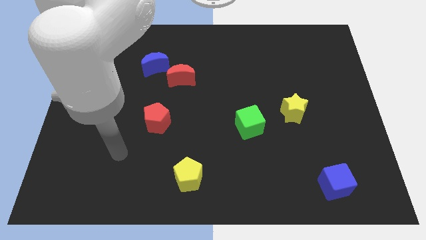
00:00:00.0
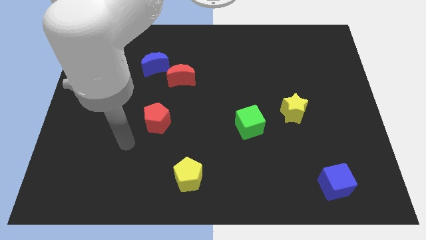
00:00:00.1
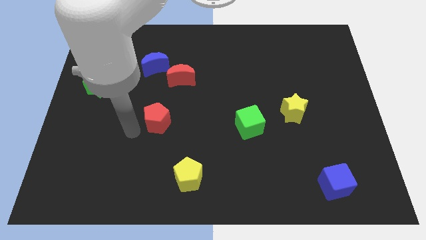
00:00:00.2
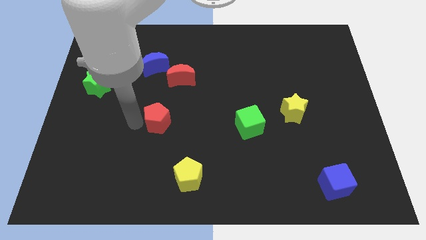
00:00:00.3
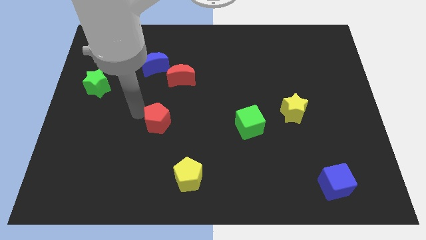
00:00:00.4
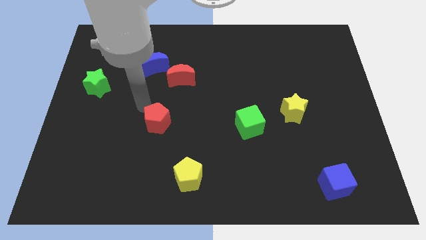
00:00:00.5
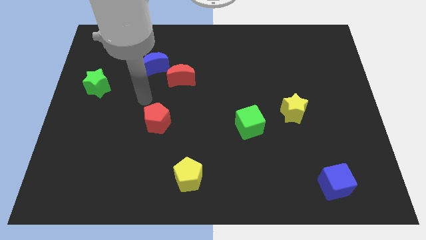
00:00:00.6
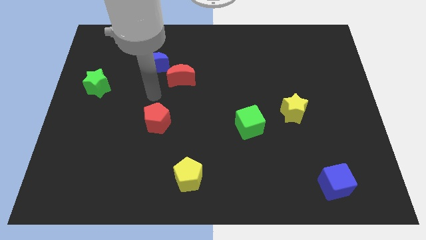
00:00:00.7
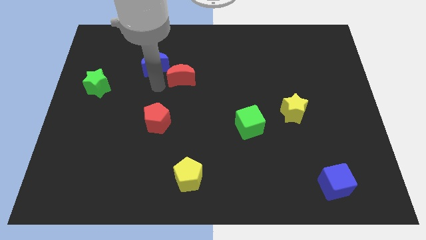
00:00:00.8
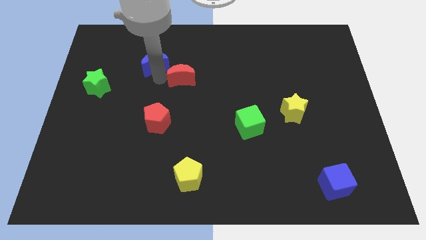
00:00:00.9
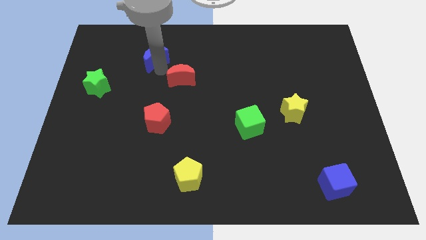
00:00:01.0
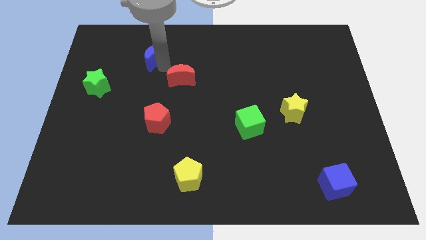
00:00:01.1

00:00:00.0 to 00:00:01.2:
pull the red moon apart from the blue moon

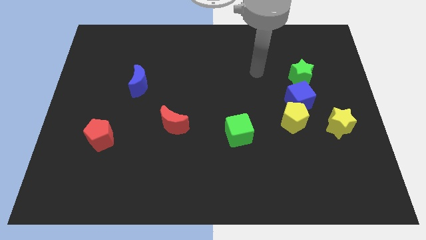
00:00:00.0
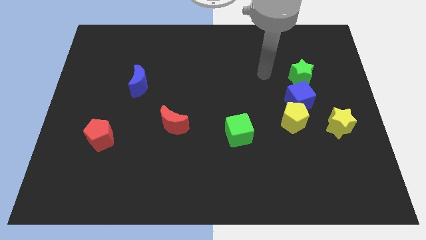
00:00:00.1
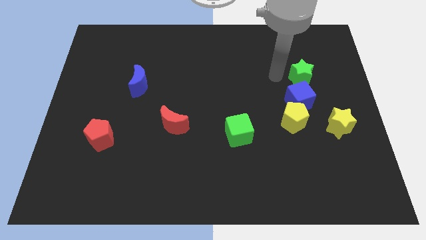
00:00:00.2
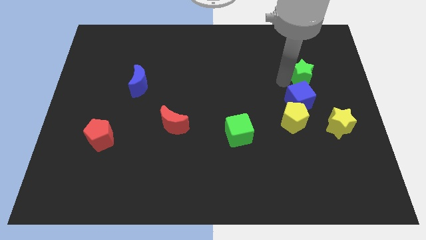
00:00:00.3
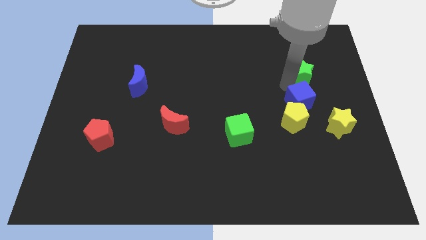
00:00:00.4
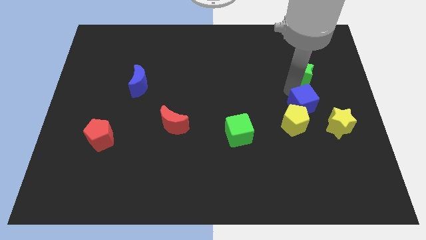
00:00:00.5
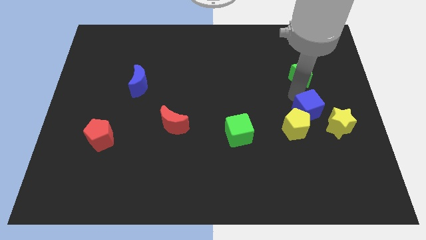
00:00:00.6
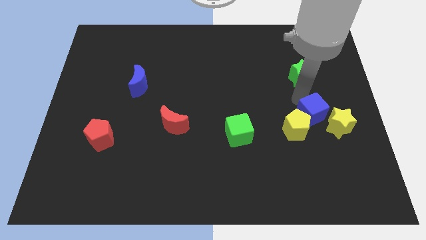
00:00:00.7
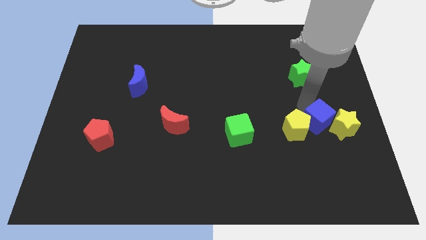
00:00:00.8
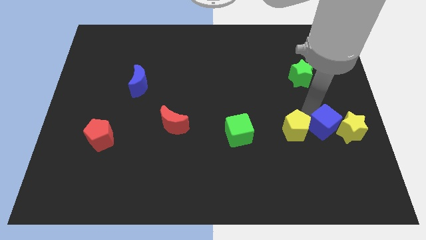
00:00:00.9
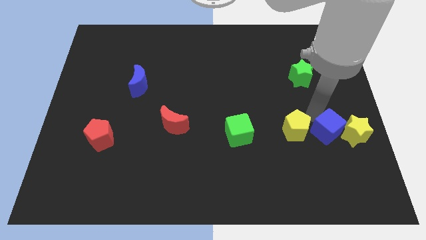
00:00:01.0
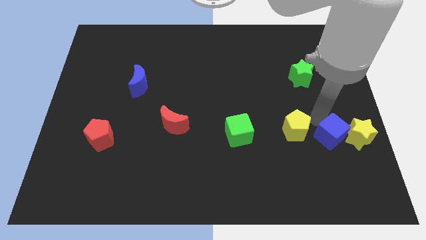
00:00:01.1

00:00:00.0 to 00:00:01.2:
pull the blue cube apart from the yellow pentagon and green star

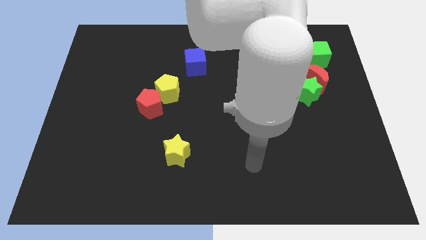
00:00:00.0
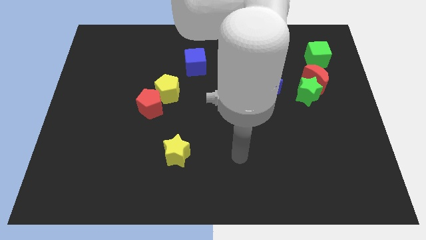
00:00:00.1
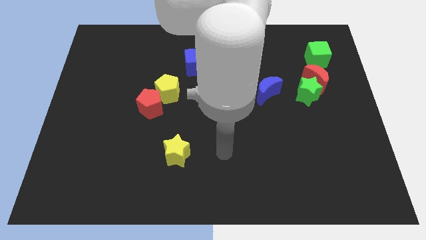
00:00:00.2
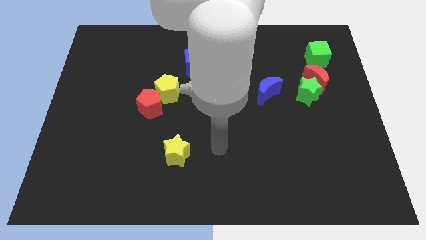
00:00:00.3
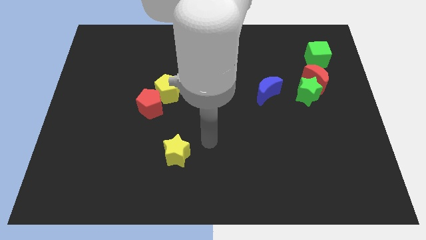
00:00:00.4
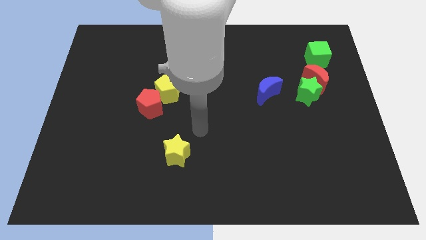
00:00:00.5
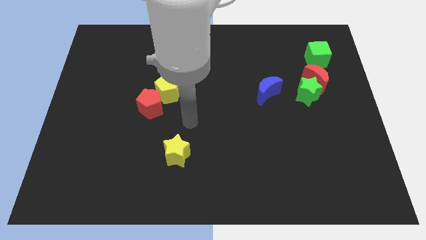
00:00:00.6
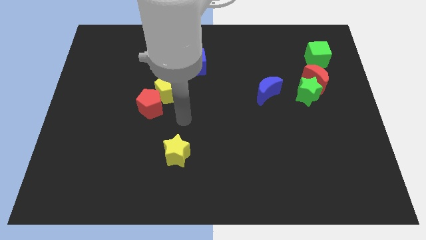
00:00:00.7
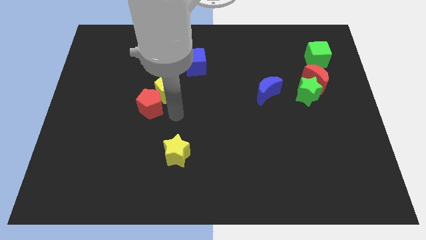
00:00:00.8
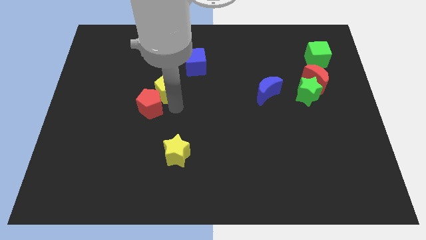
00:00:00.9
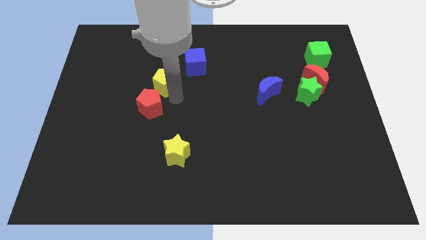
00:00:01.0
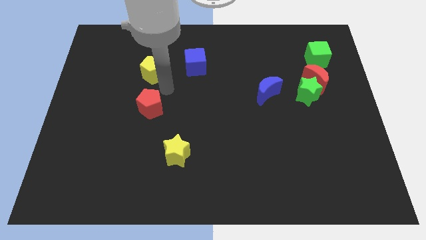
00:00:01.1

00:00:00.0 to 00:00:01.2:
move the red pentagon away from the yellow pentagon

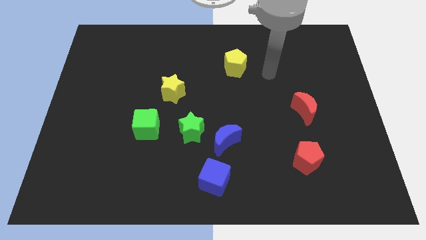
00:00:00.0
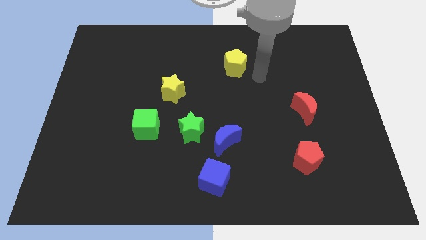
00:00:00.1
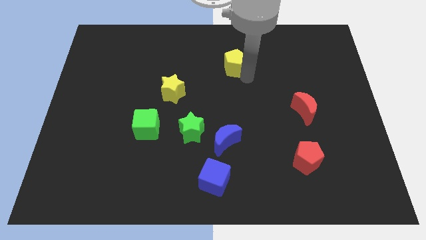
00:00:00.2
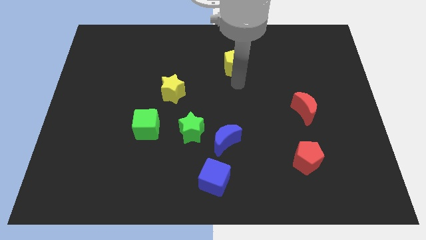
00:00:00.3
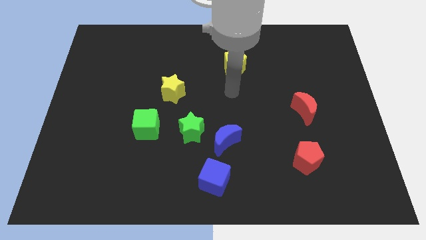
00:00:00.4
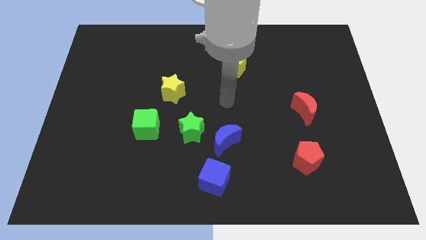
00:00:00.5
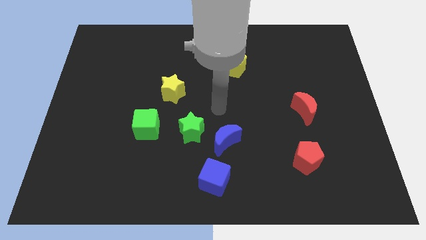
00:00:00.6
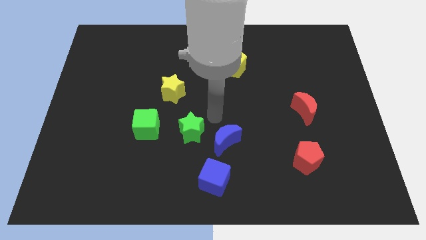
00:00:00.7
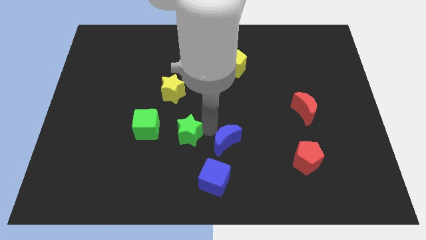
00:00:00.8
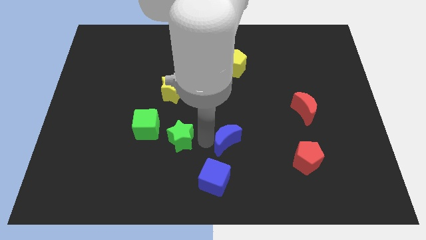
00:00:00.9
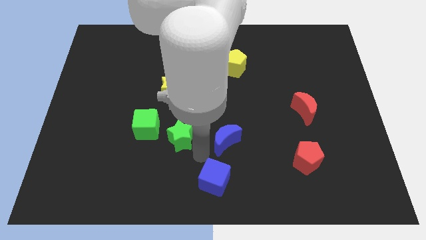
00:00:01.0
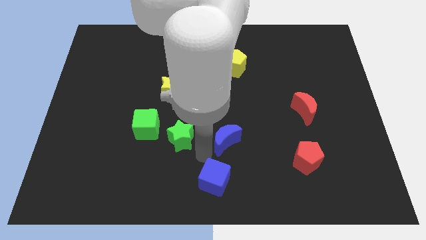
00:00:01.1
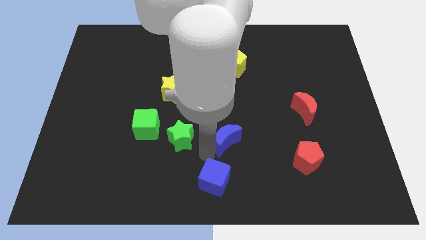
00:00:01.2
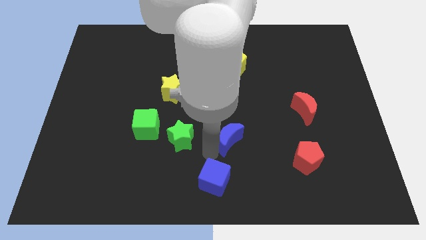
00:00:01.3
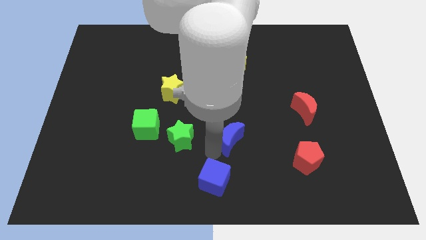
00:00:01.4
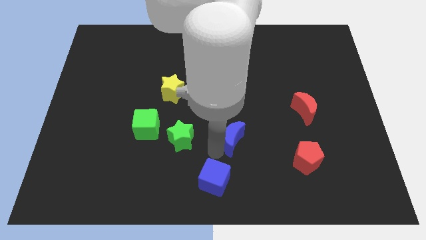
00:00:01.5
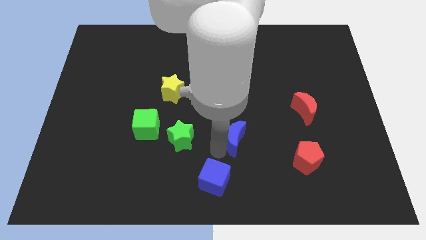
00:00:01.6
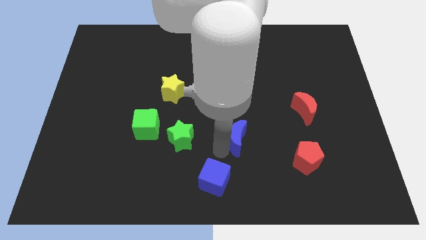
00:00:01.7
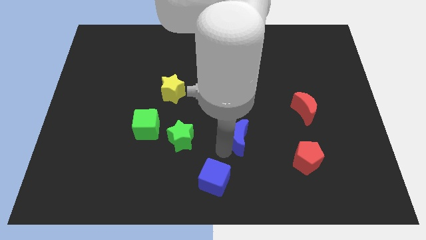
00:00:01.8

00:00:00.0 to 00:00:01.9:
pull the blue moon apart from the green star and blue cube

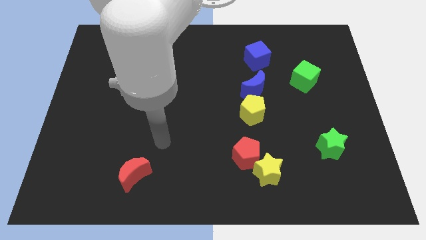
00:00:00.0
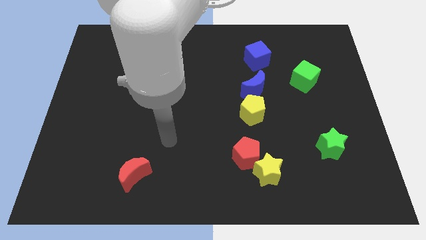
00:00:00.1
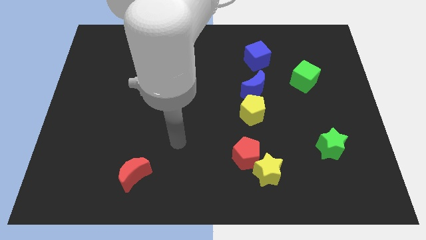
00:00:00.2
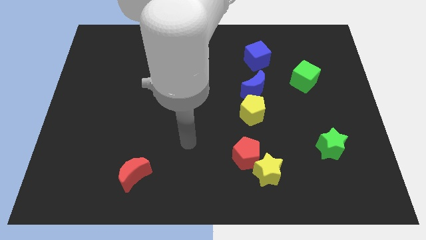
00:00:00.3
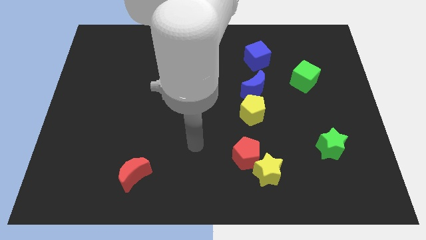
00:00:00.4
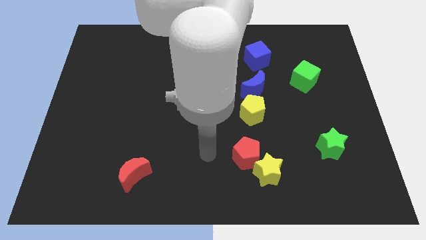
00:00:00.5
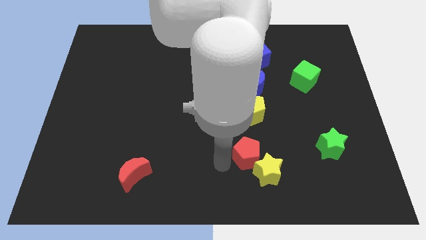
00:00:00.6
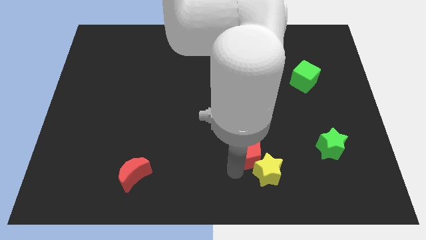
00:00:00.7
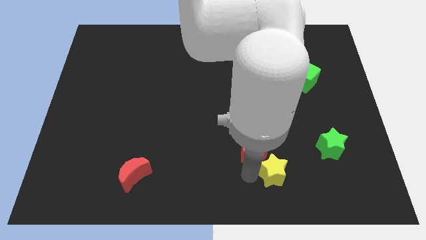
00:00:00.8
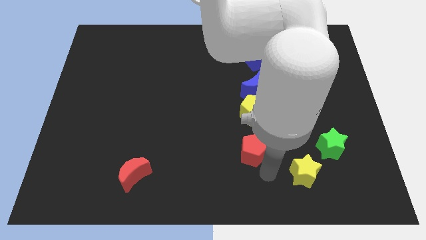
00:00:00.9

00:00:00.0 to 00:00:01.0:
pull the red pentagon apart from the yellow star

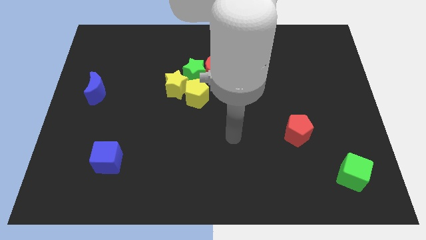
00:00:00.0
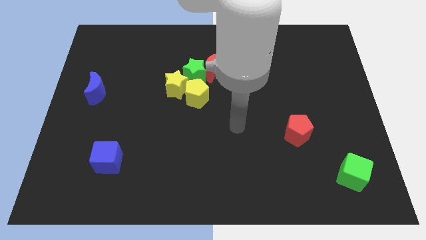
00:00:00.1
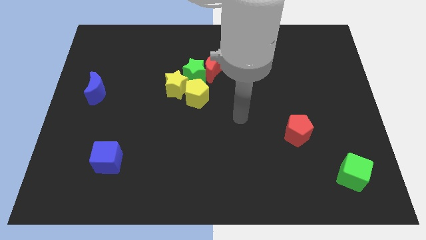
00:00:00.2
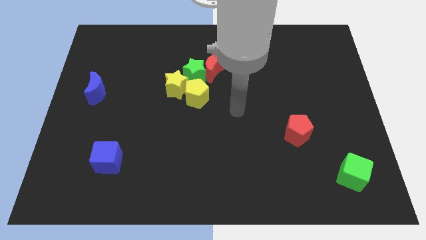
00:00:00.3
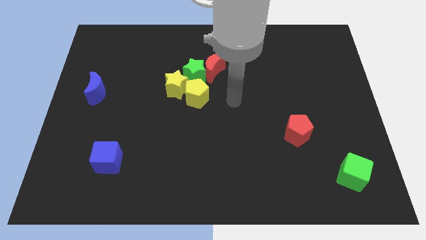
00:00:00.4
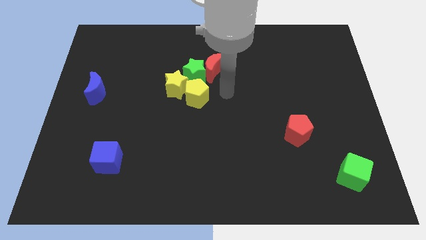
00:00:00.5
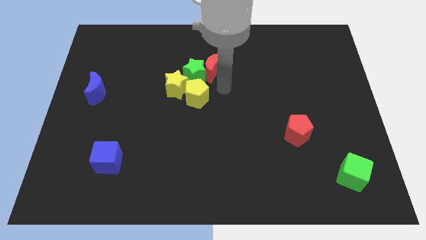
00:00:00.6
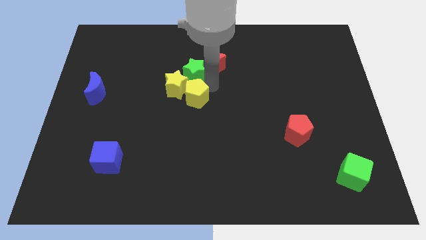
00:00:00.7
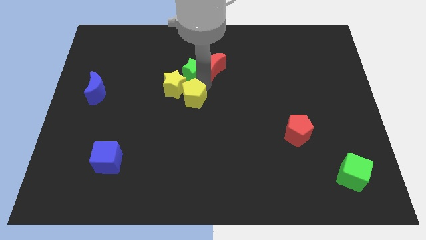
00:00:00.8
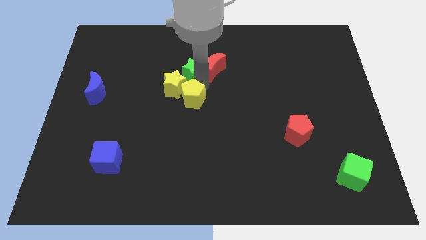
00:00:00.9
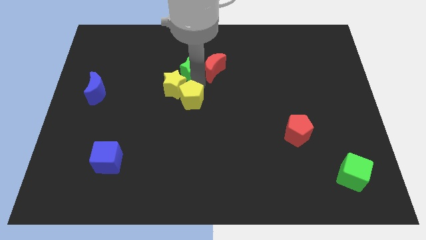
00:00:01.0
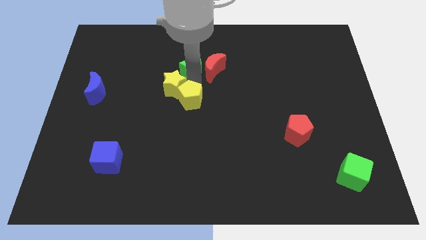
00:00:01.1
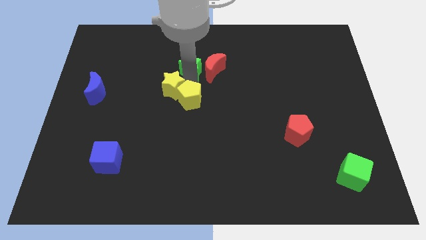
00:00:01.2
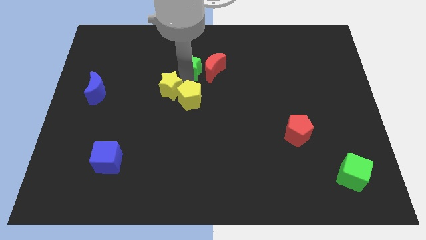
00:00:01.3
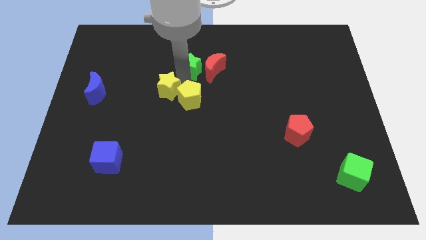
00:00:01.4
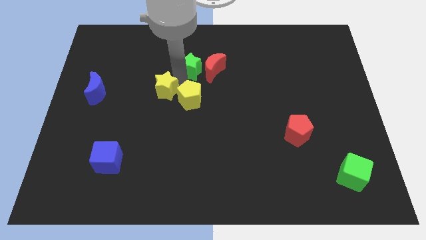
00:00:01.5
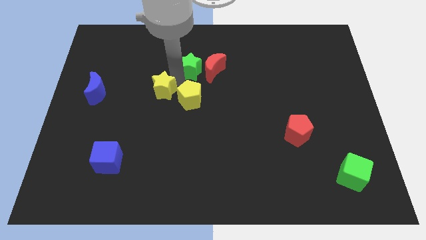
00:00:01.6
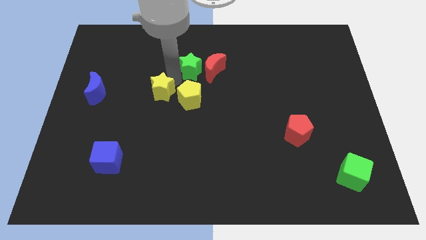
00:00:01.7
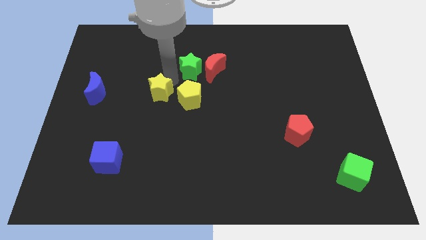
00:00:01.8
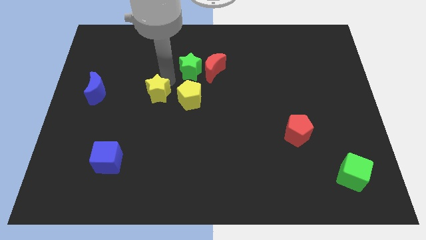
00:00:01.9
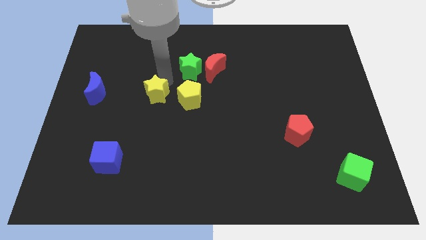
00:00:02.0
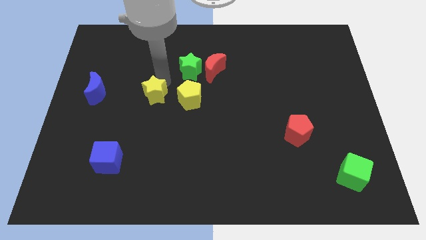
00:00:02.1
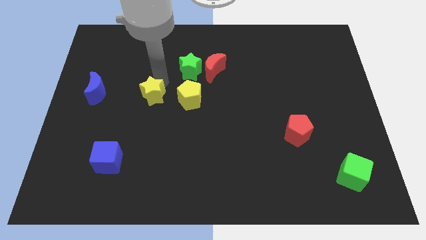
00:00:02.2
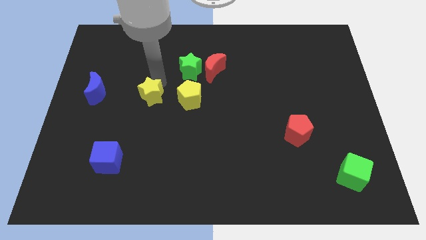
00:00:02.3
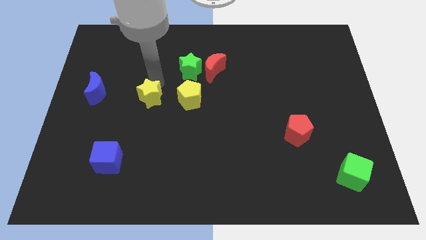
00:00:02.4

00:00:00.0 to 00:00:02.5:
separate the yellow star from the green star and yellow pentagon

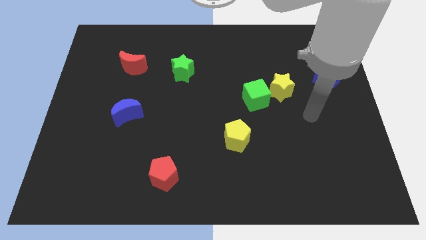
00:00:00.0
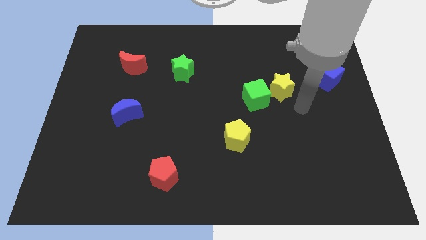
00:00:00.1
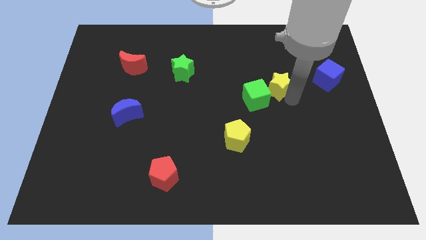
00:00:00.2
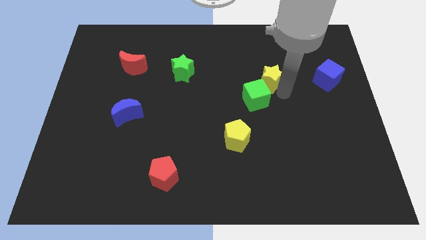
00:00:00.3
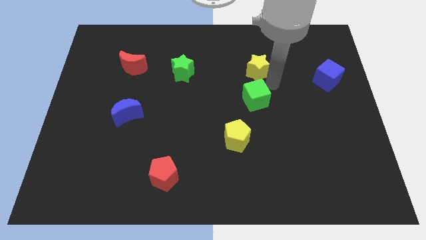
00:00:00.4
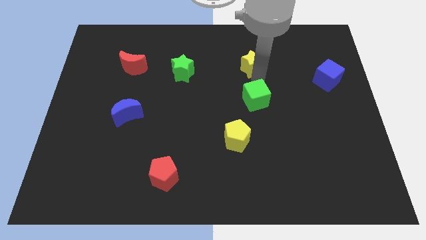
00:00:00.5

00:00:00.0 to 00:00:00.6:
move the green cube away from the yellow star
